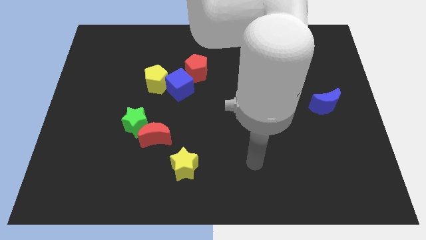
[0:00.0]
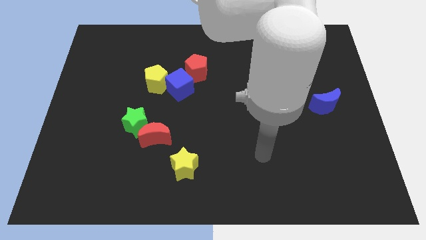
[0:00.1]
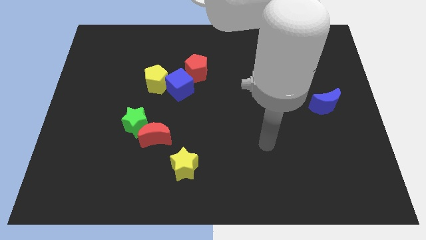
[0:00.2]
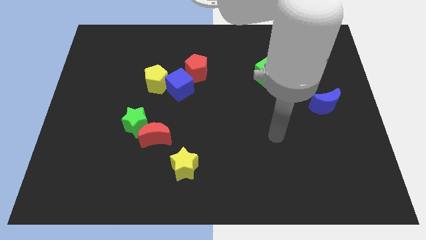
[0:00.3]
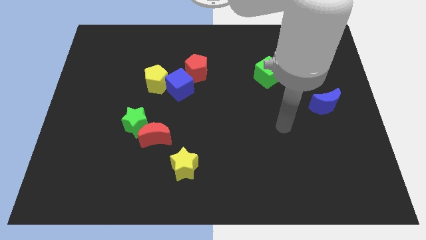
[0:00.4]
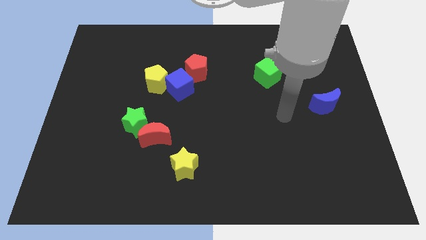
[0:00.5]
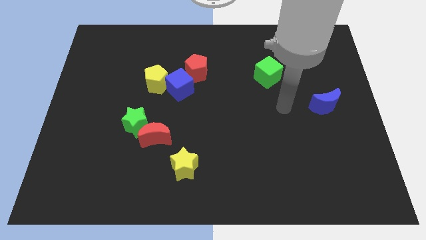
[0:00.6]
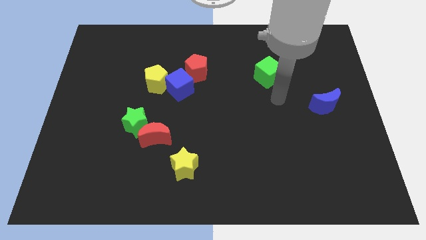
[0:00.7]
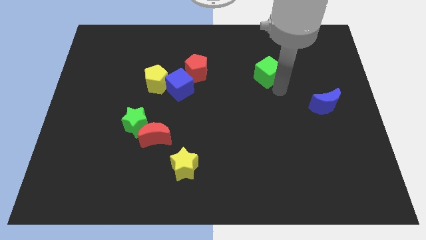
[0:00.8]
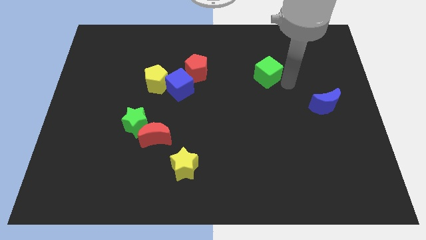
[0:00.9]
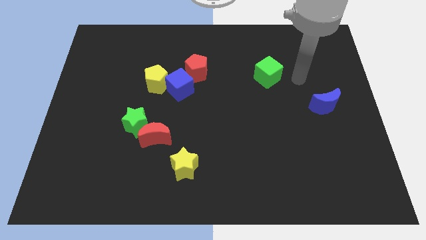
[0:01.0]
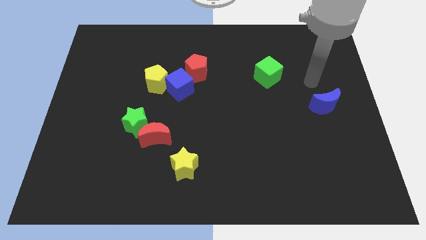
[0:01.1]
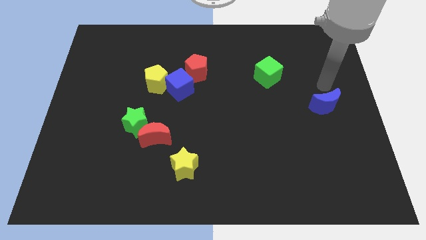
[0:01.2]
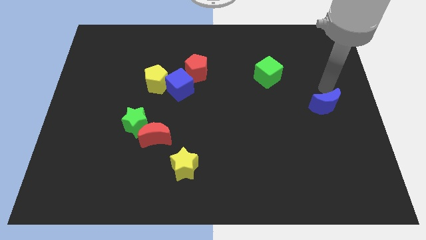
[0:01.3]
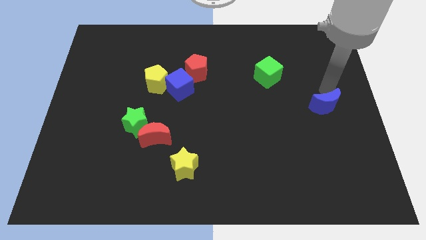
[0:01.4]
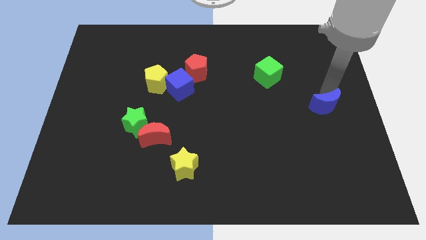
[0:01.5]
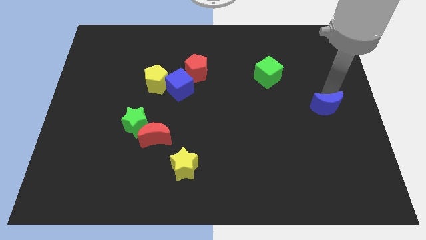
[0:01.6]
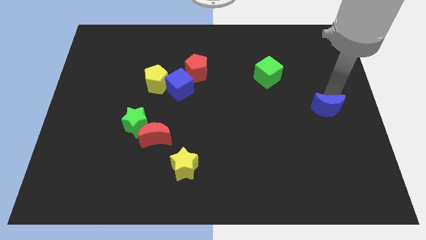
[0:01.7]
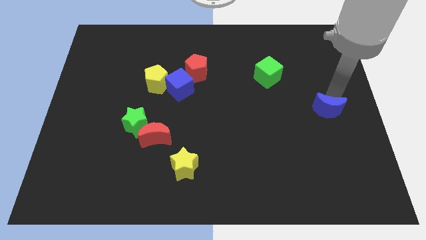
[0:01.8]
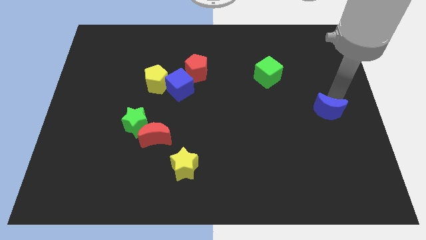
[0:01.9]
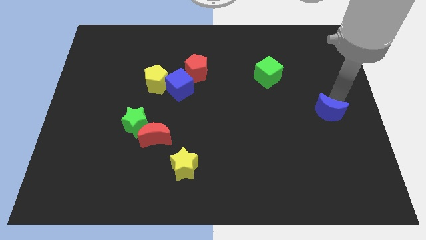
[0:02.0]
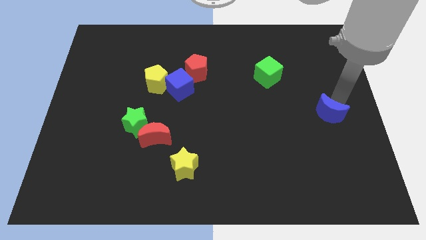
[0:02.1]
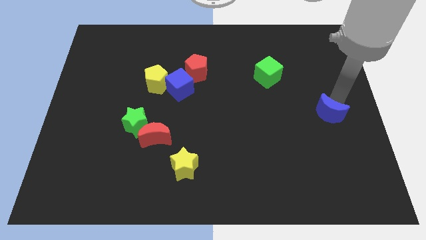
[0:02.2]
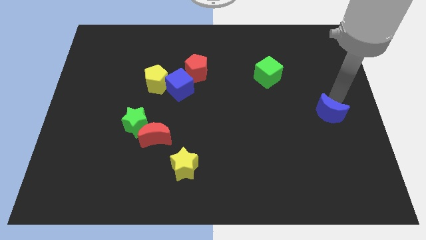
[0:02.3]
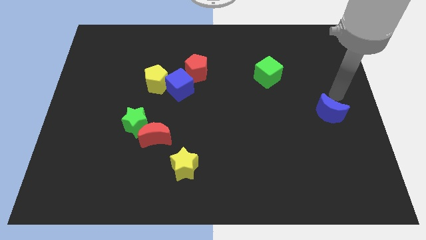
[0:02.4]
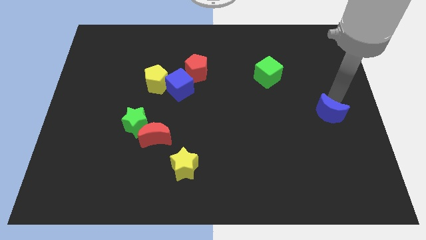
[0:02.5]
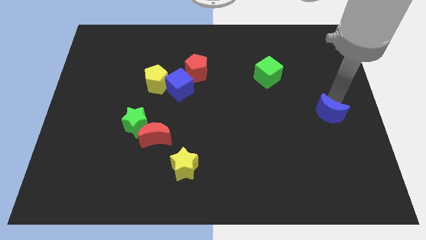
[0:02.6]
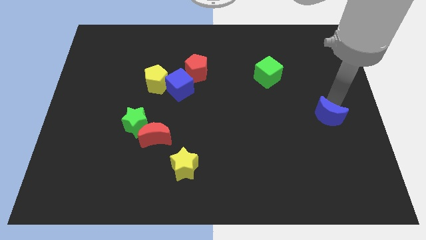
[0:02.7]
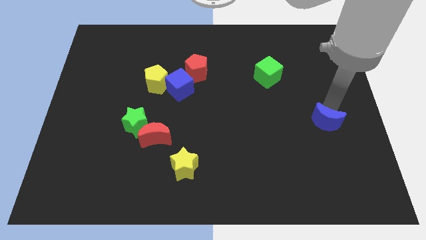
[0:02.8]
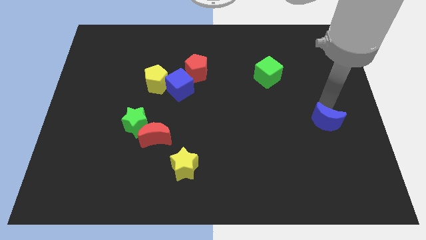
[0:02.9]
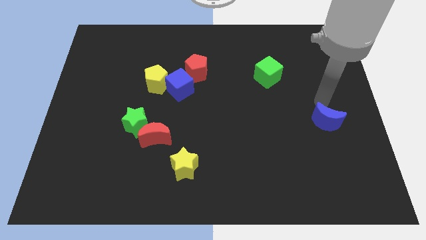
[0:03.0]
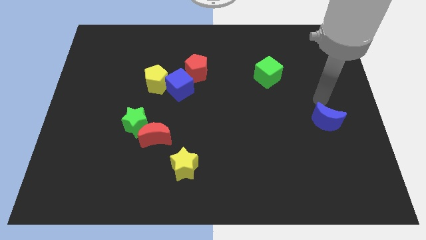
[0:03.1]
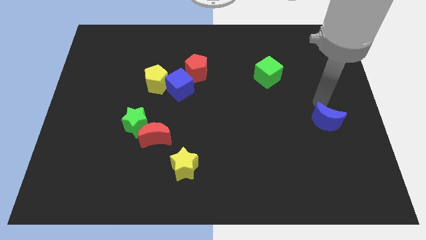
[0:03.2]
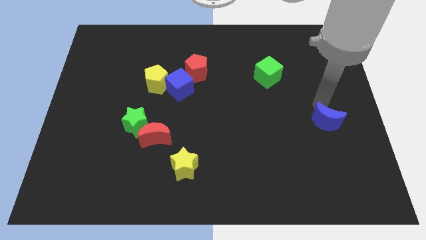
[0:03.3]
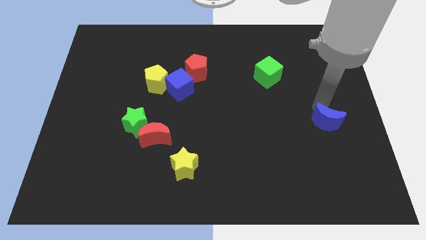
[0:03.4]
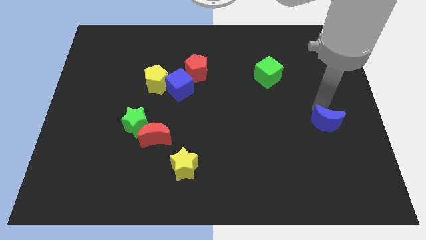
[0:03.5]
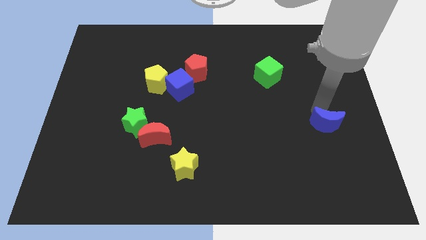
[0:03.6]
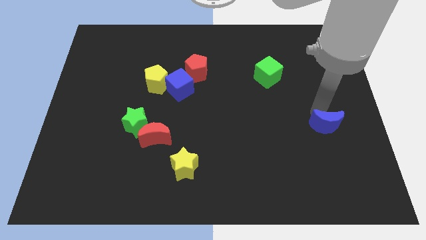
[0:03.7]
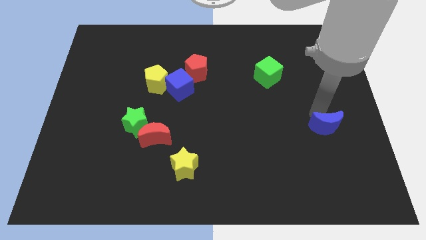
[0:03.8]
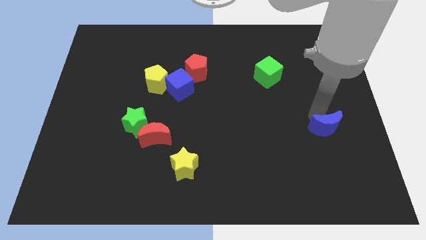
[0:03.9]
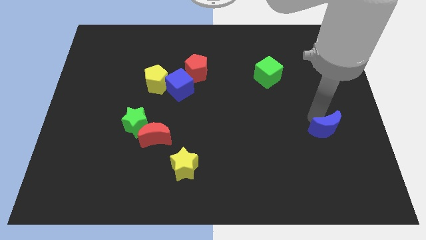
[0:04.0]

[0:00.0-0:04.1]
move the blue moon downwards somewhat

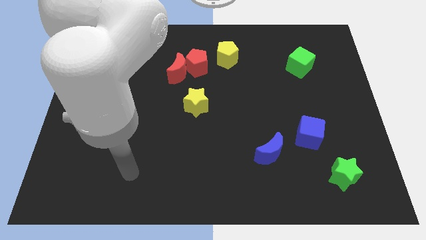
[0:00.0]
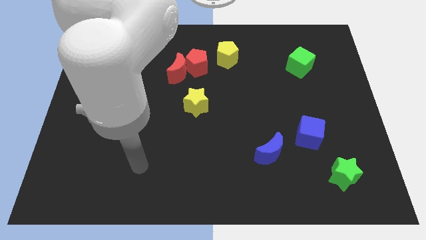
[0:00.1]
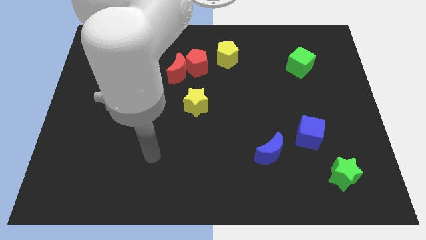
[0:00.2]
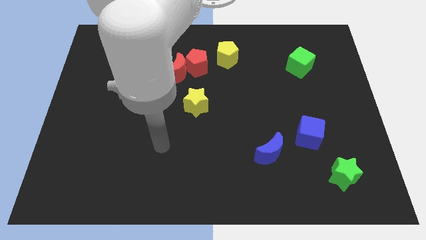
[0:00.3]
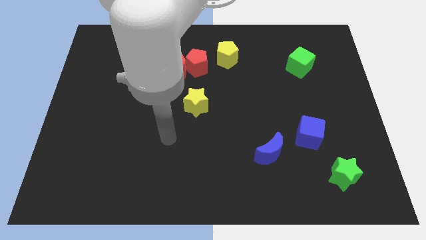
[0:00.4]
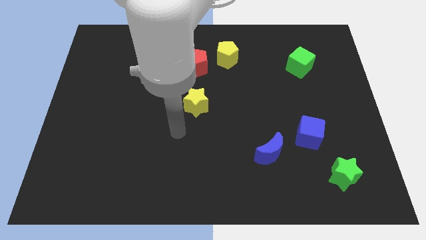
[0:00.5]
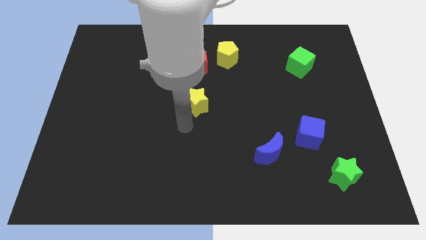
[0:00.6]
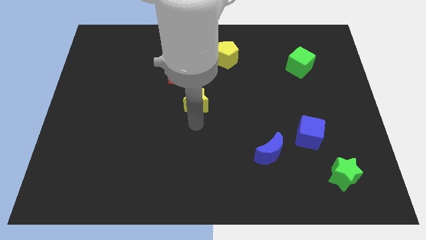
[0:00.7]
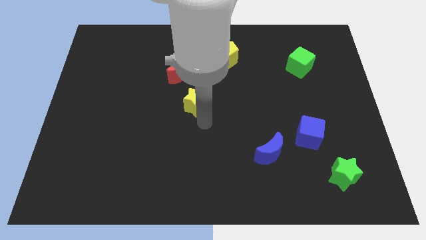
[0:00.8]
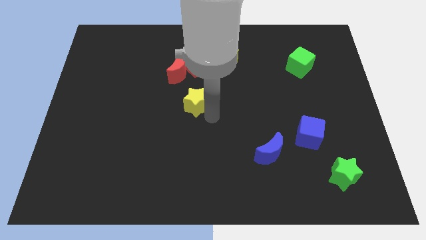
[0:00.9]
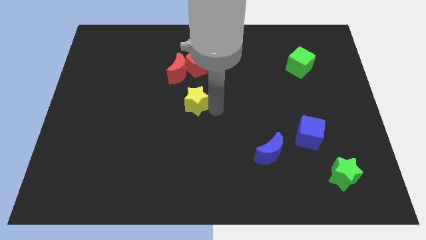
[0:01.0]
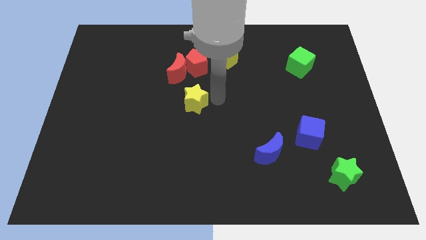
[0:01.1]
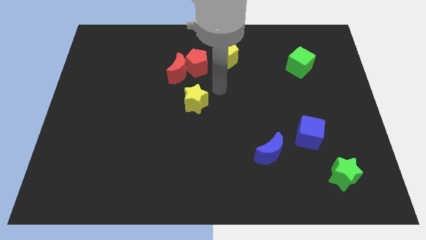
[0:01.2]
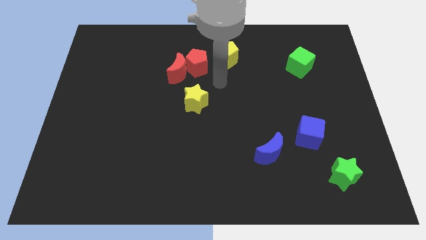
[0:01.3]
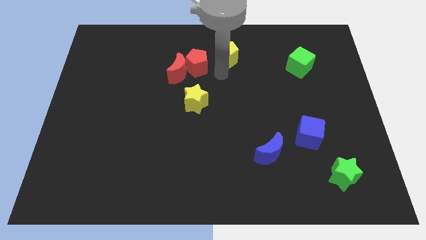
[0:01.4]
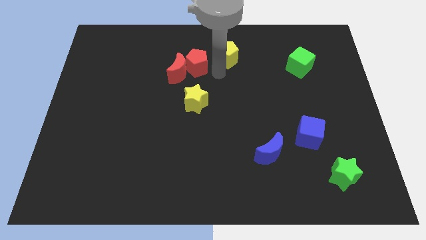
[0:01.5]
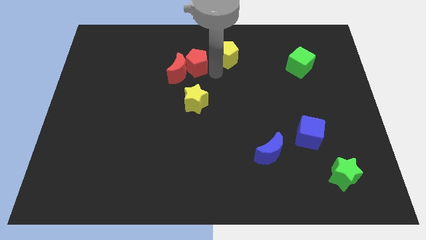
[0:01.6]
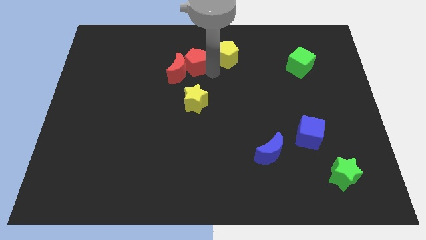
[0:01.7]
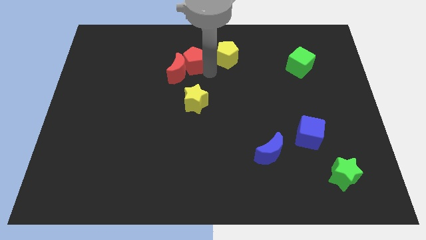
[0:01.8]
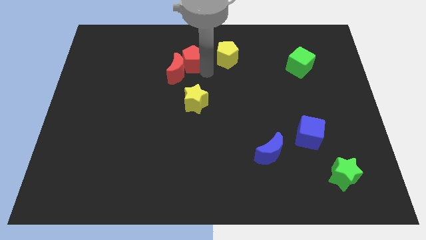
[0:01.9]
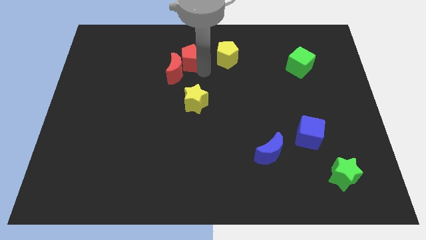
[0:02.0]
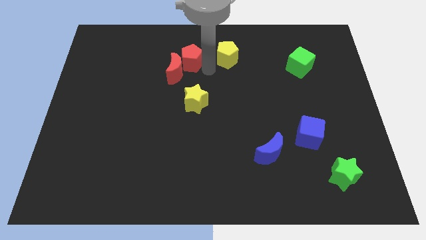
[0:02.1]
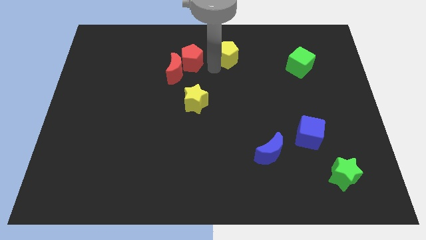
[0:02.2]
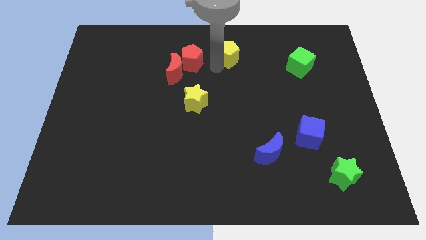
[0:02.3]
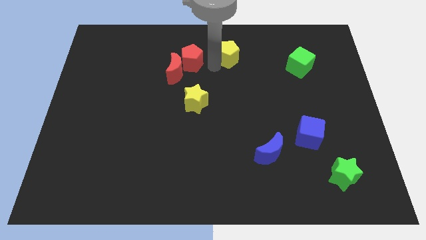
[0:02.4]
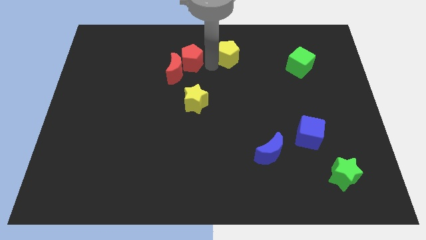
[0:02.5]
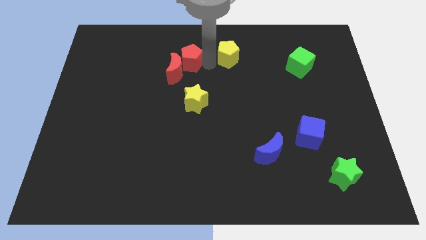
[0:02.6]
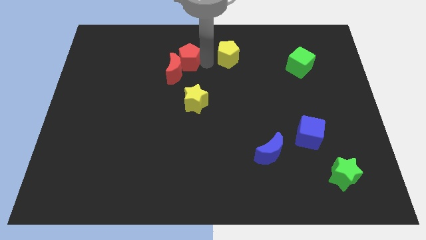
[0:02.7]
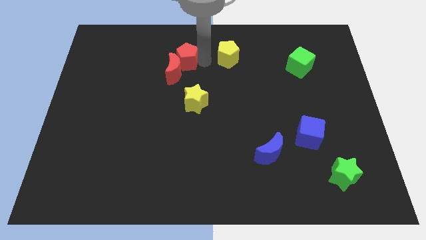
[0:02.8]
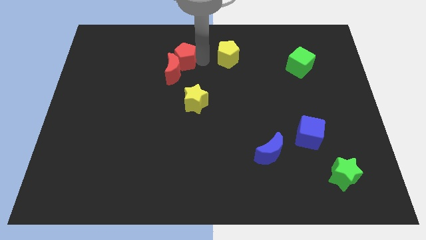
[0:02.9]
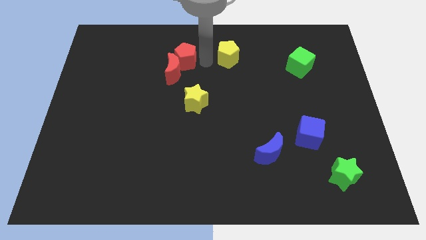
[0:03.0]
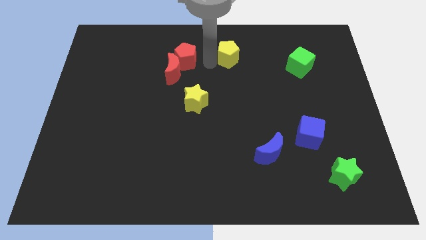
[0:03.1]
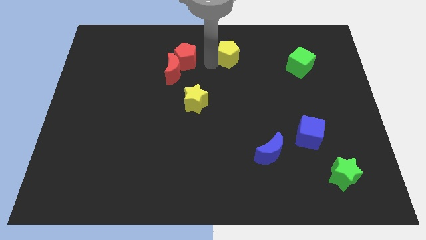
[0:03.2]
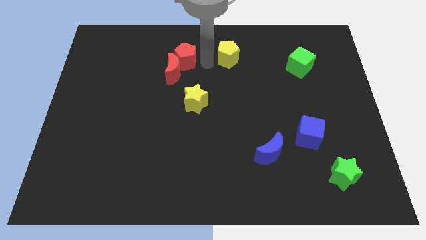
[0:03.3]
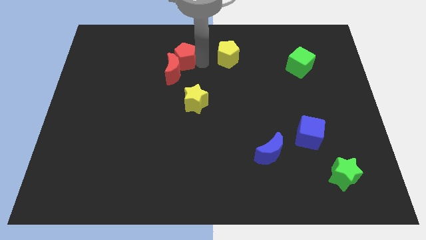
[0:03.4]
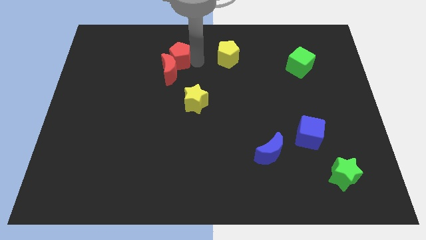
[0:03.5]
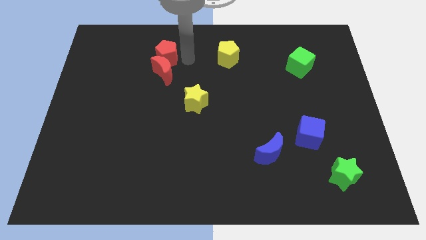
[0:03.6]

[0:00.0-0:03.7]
slide the red pentagon left a bit

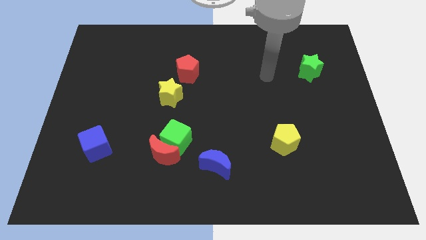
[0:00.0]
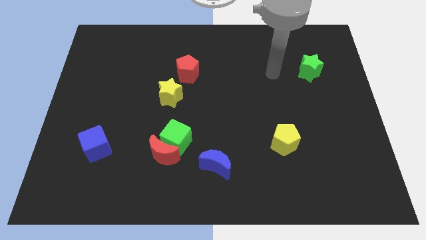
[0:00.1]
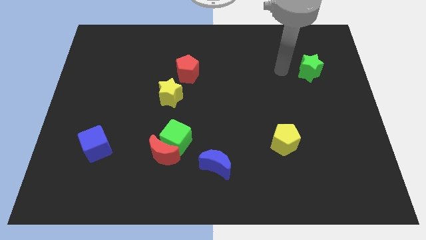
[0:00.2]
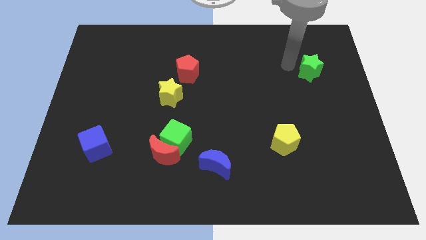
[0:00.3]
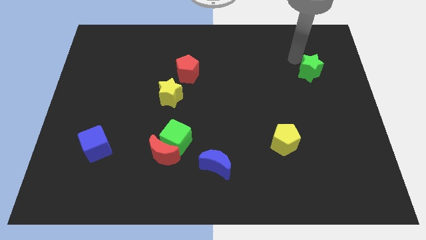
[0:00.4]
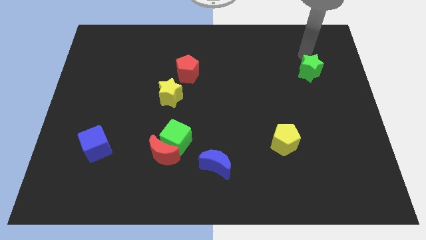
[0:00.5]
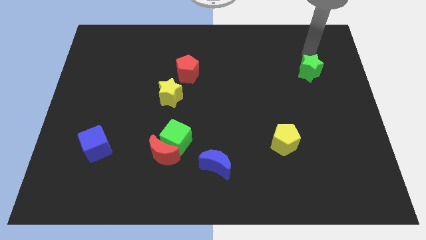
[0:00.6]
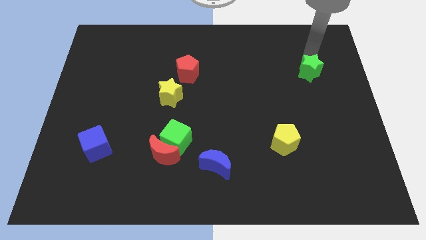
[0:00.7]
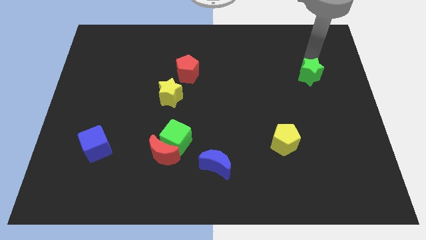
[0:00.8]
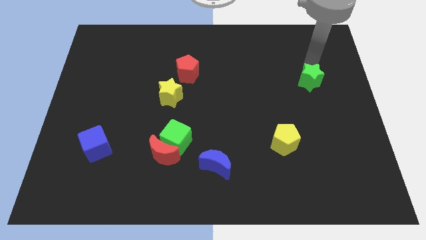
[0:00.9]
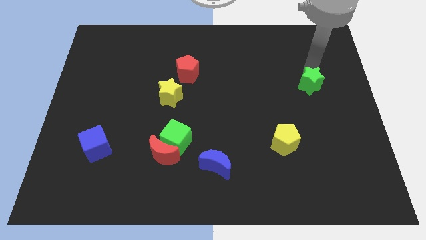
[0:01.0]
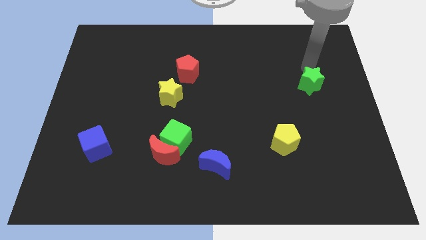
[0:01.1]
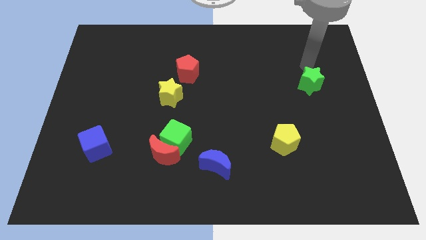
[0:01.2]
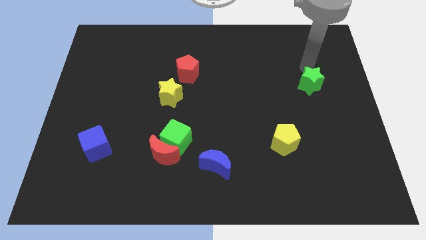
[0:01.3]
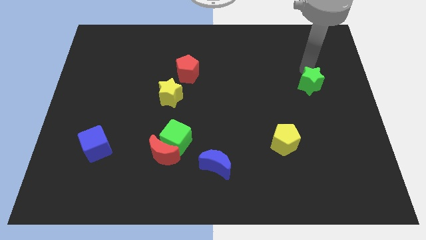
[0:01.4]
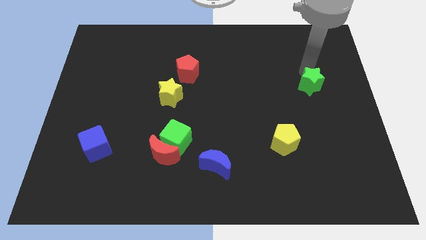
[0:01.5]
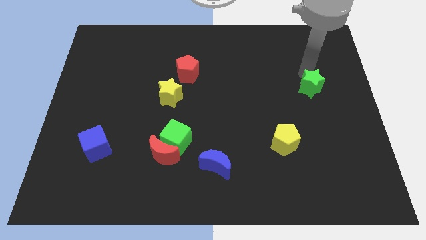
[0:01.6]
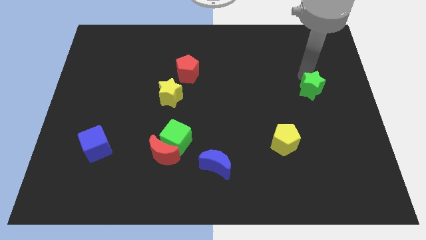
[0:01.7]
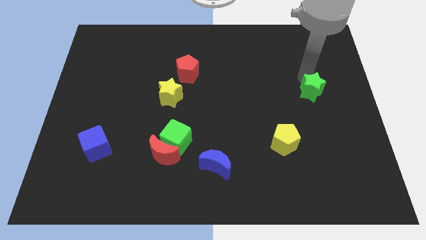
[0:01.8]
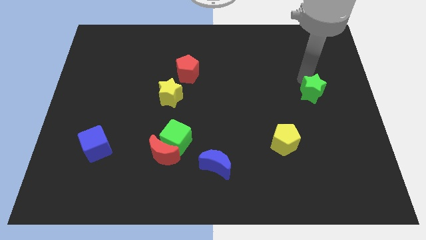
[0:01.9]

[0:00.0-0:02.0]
move the green star a bit down
